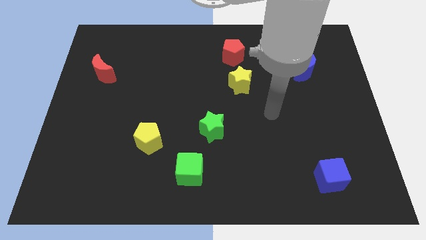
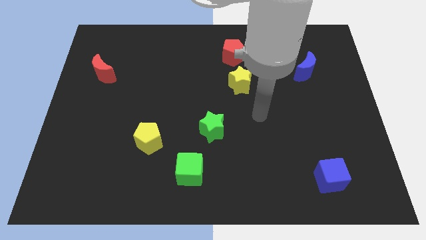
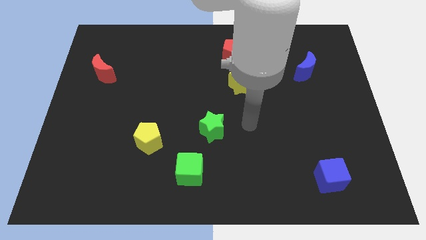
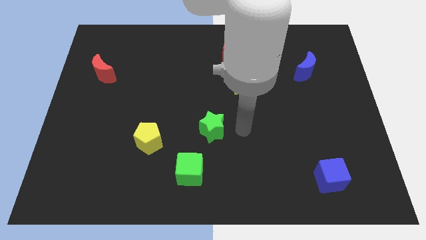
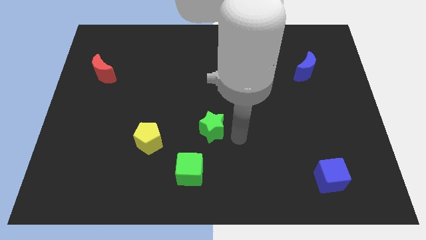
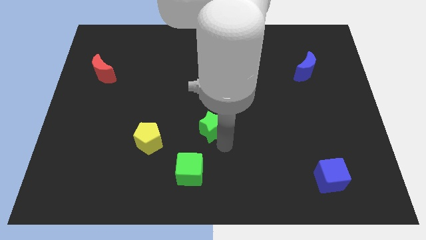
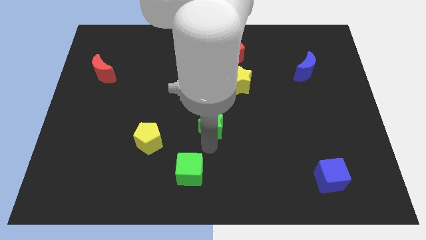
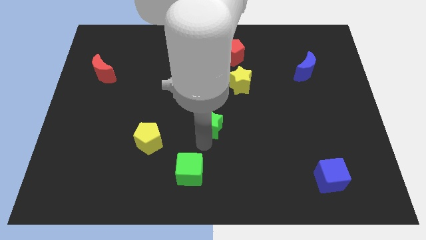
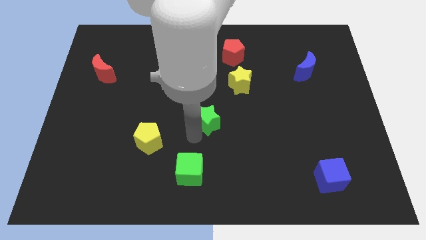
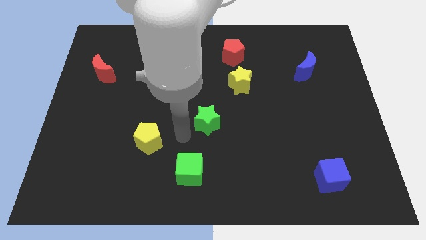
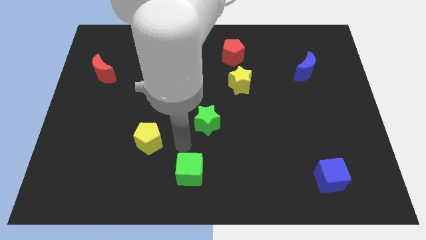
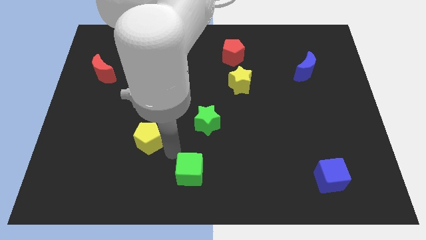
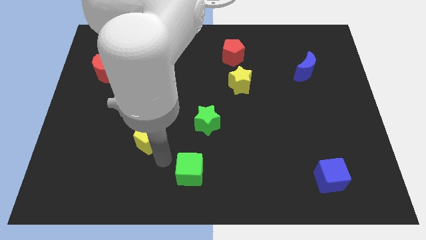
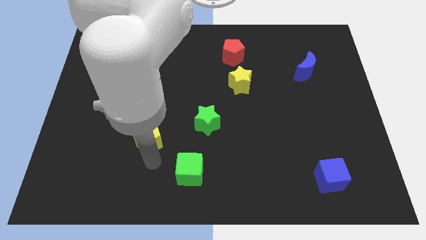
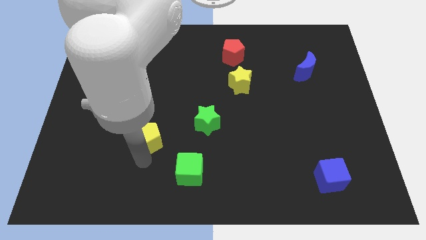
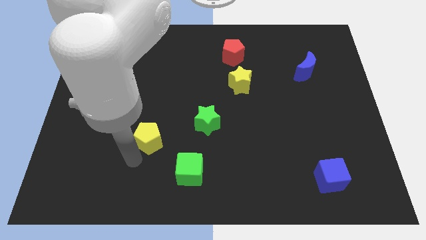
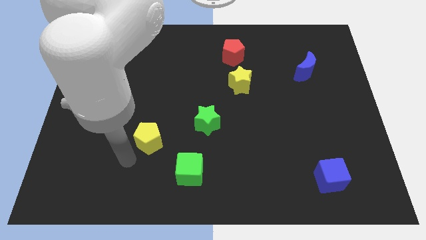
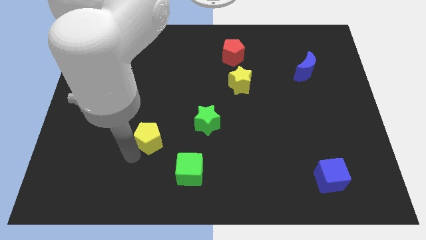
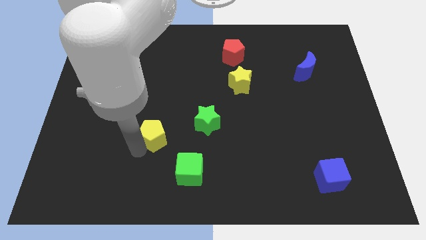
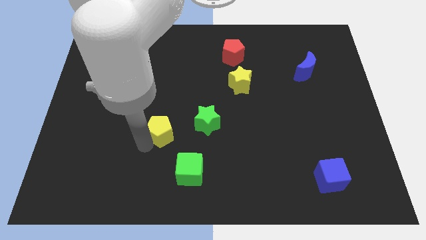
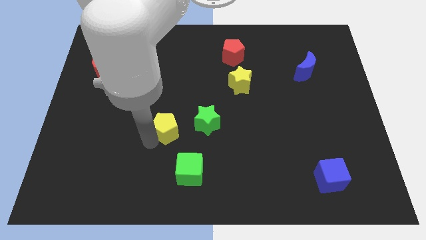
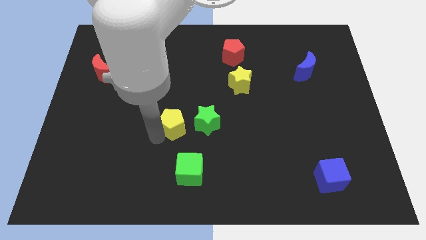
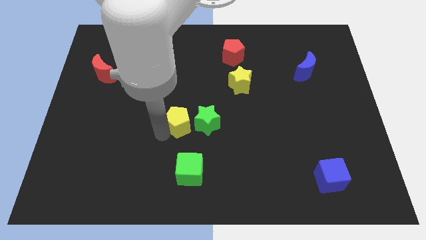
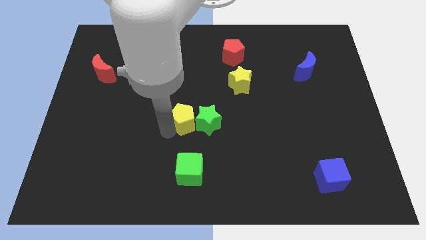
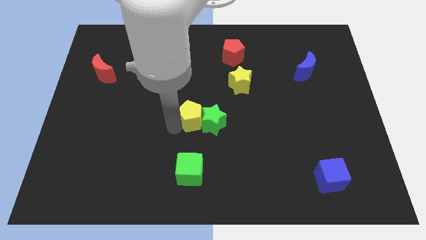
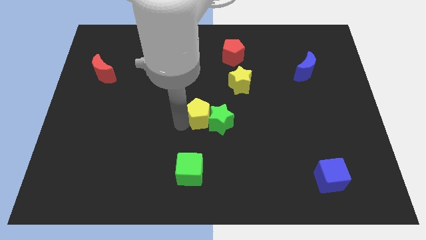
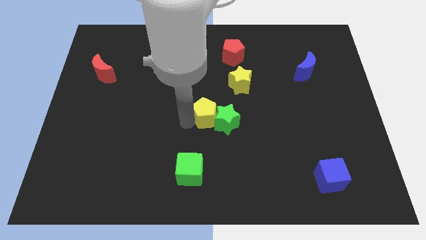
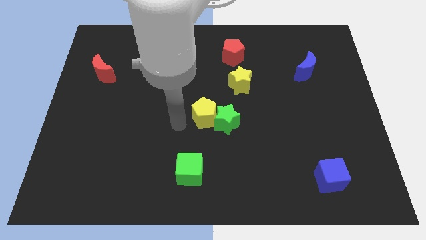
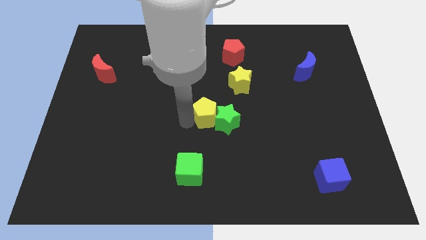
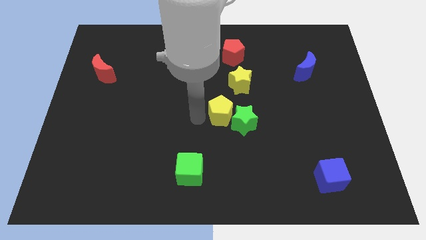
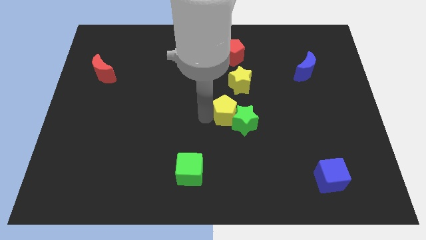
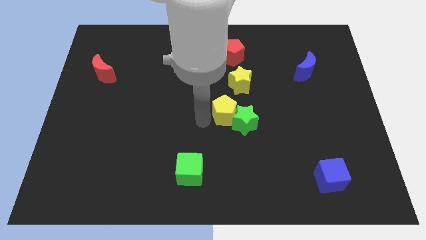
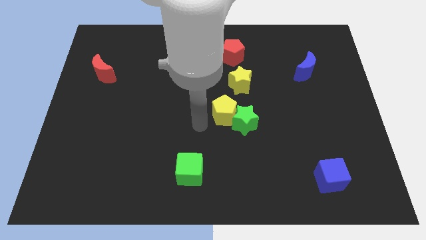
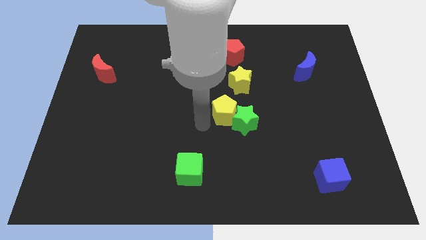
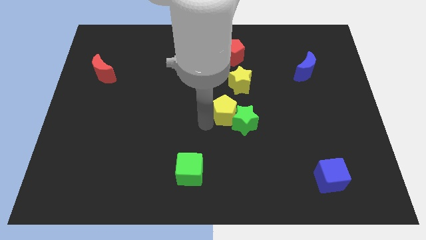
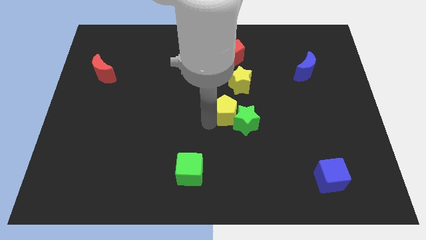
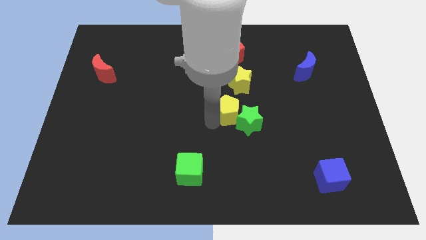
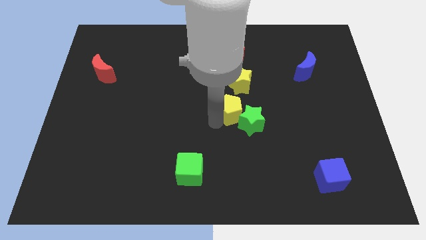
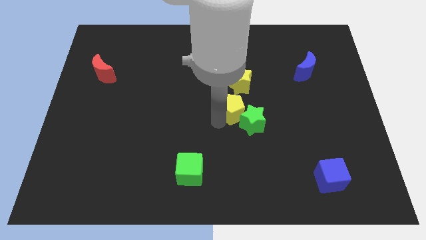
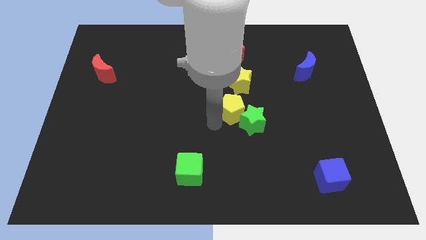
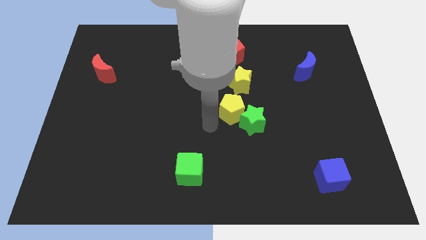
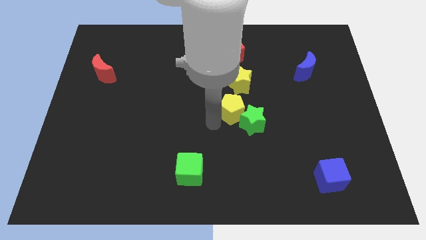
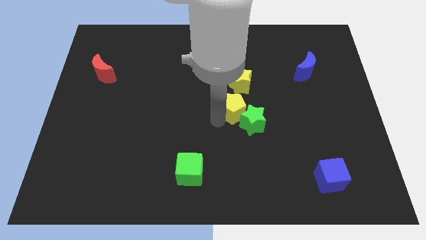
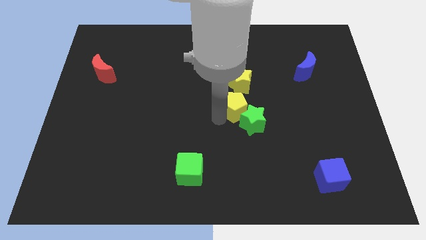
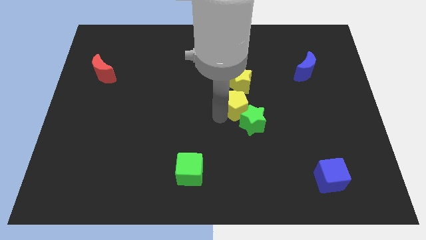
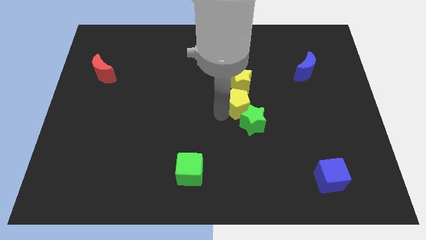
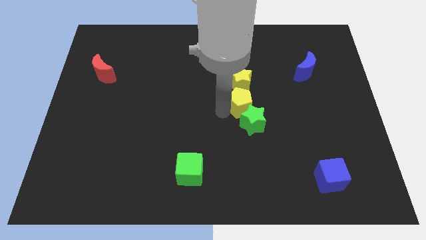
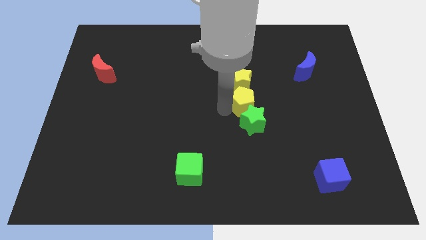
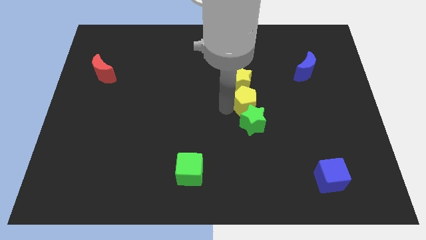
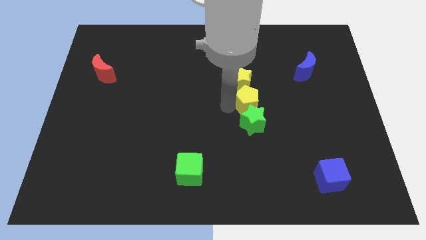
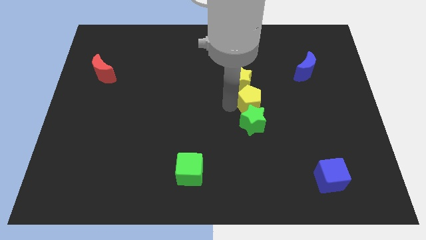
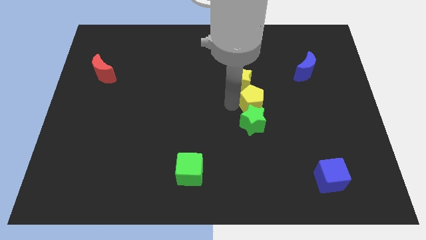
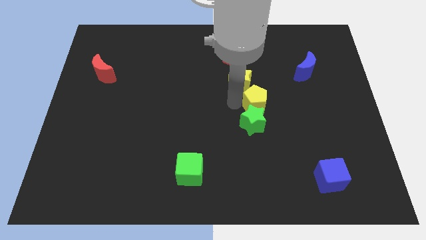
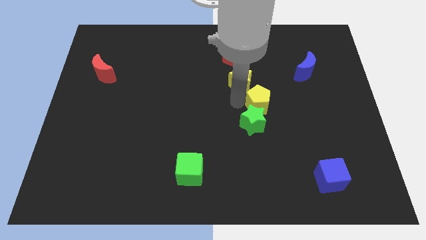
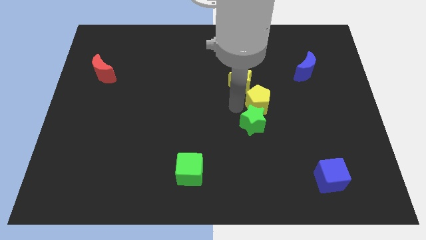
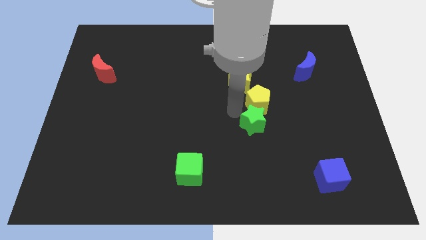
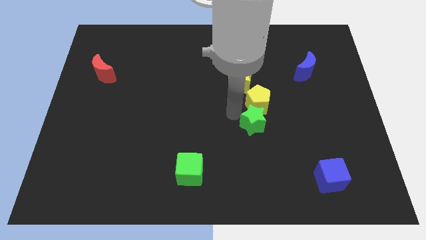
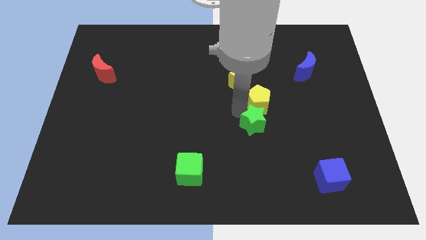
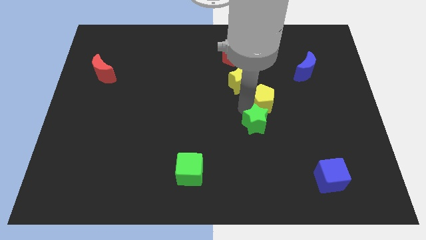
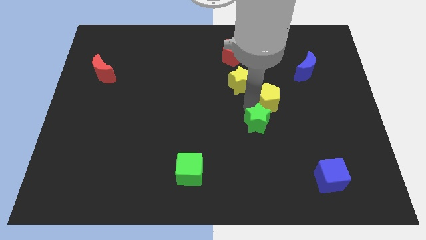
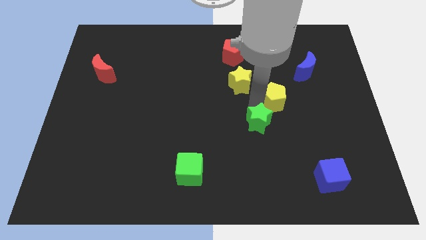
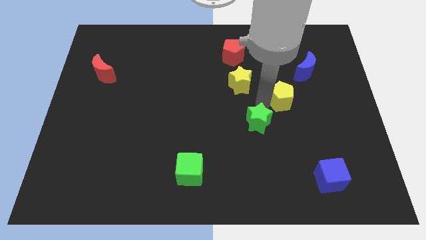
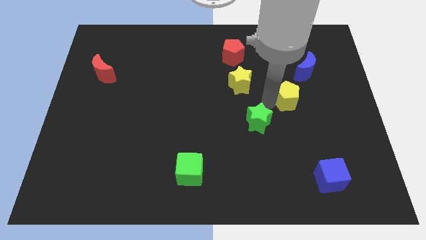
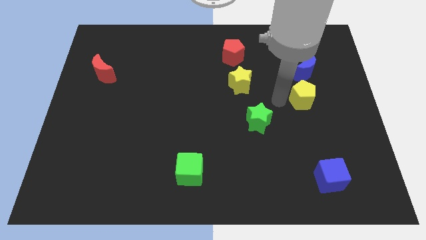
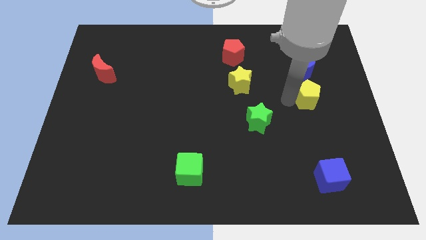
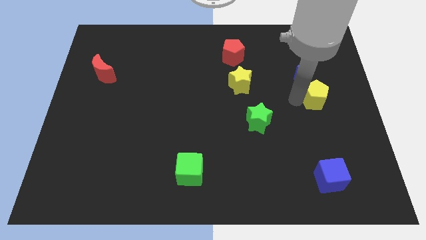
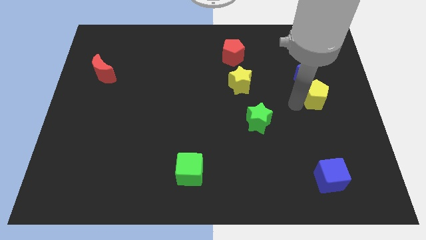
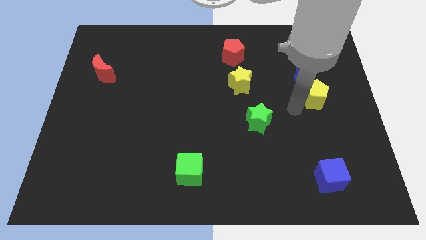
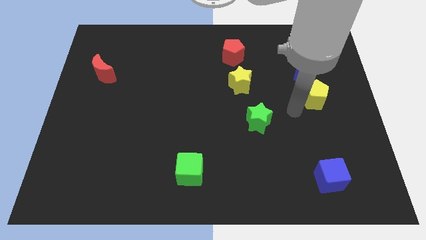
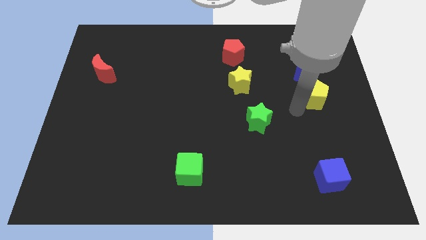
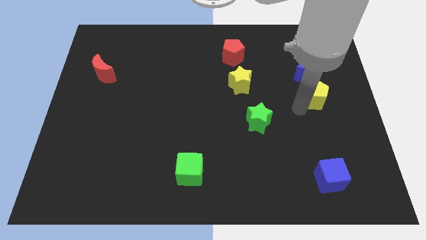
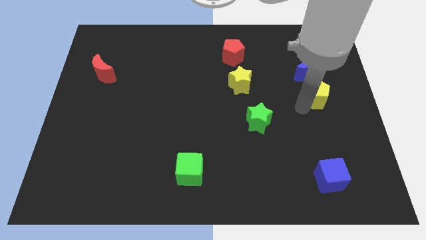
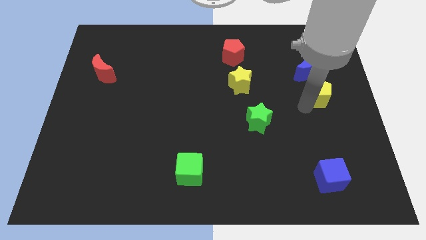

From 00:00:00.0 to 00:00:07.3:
slide the yellow pentagon to the bottom right of the blue moon
